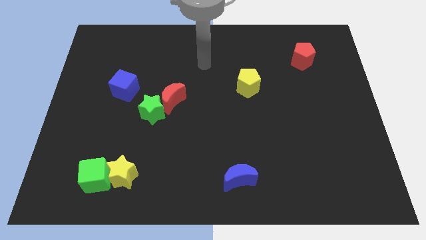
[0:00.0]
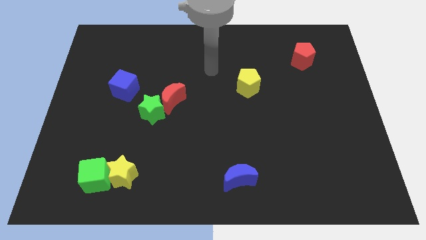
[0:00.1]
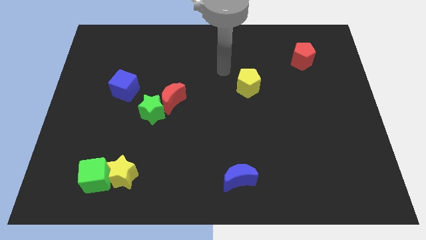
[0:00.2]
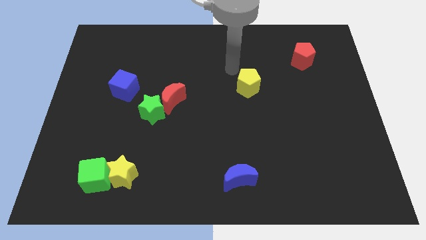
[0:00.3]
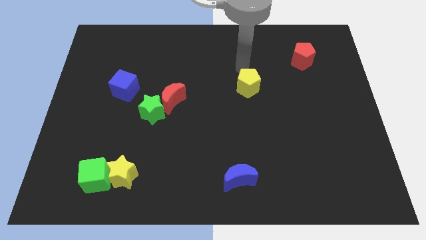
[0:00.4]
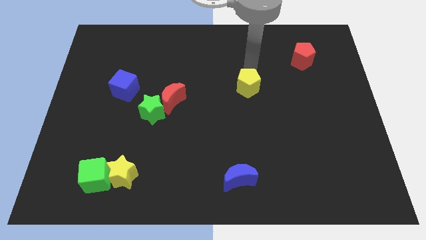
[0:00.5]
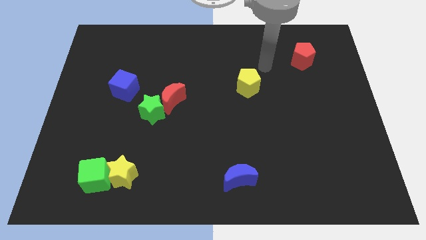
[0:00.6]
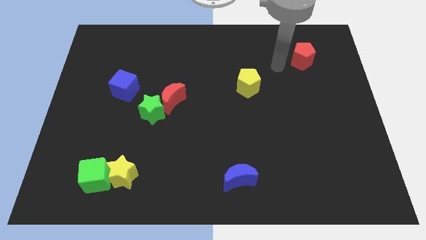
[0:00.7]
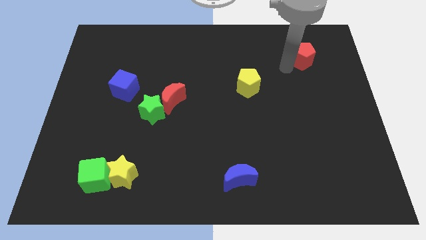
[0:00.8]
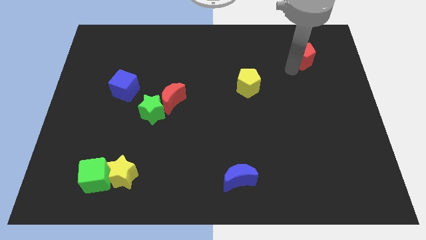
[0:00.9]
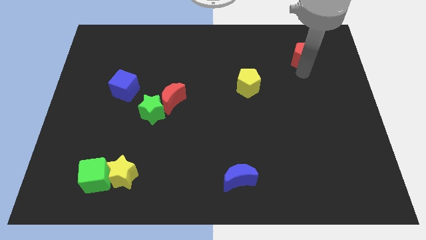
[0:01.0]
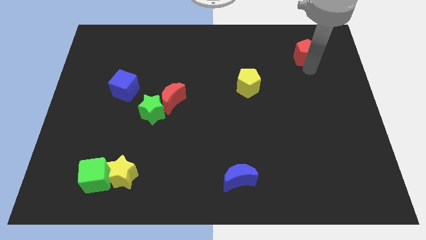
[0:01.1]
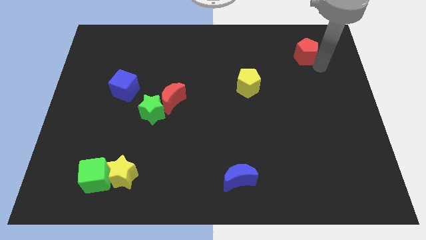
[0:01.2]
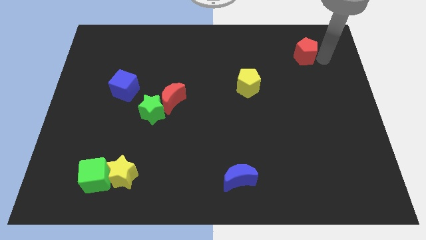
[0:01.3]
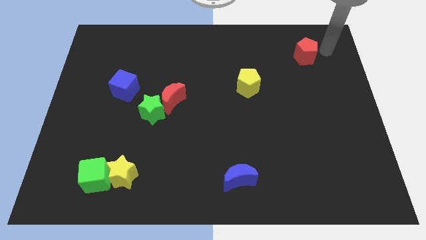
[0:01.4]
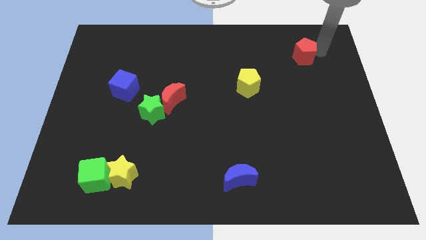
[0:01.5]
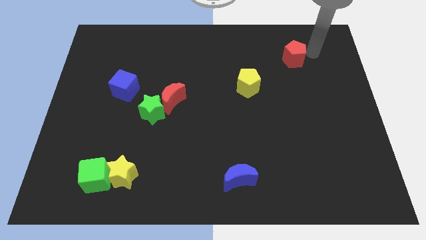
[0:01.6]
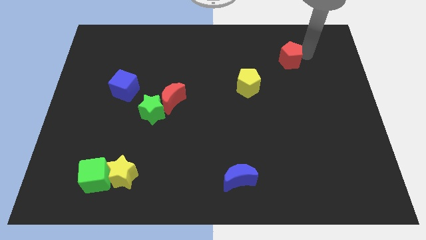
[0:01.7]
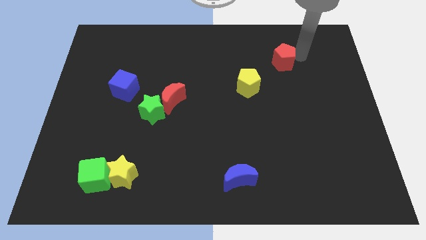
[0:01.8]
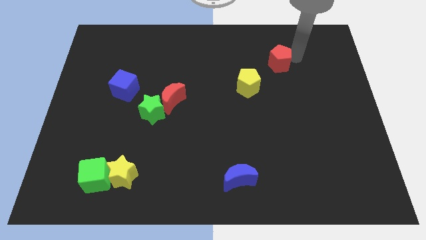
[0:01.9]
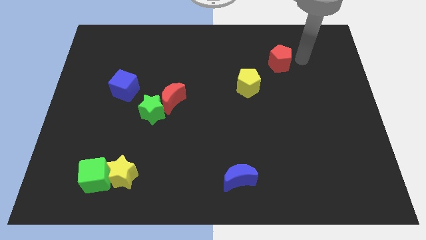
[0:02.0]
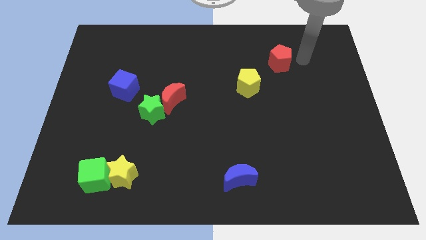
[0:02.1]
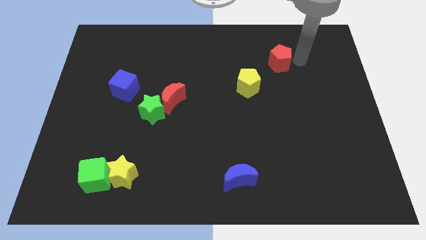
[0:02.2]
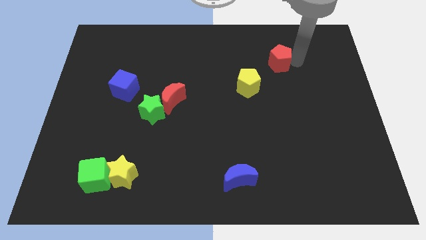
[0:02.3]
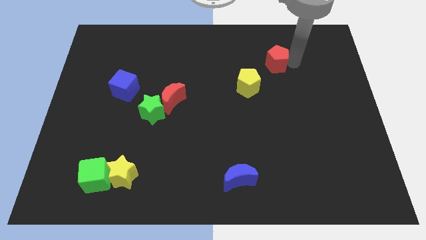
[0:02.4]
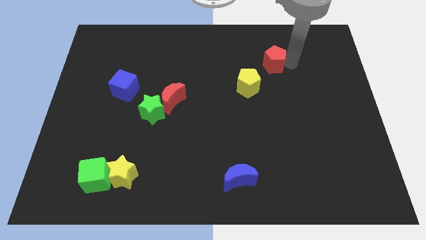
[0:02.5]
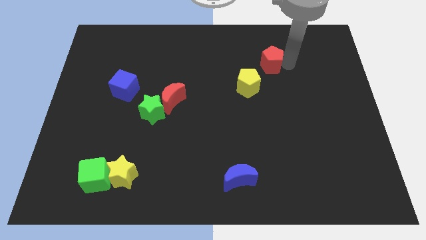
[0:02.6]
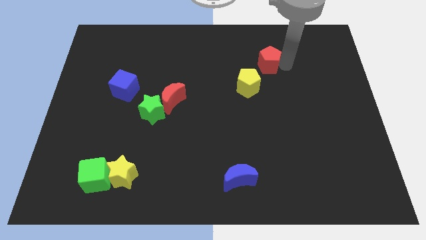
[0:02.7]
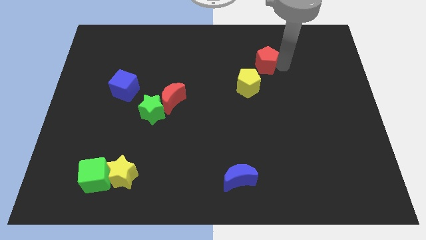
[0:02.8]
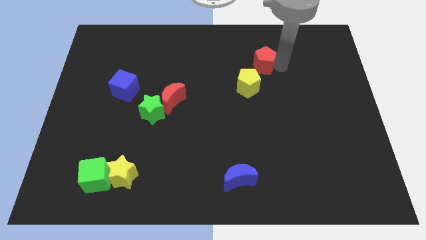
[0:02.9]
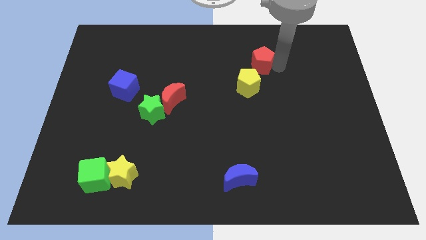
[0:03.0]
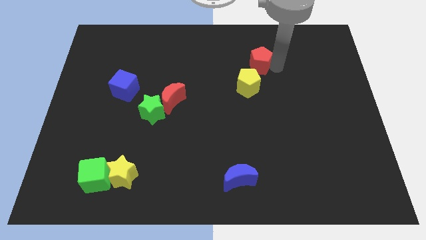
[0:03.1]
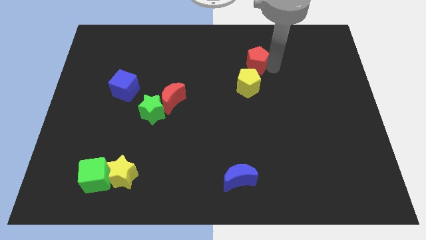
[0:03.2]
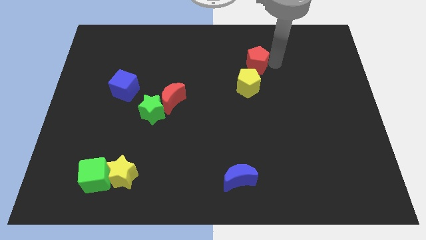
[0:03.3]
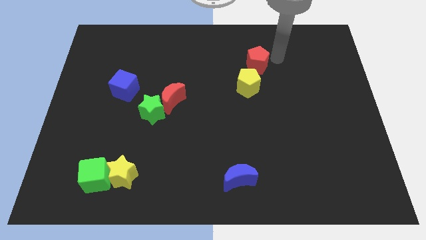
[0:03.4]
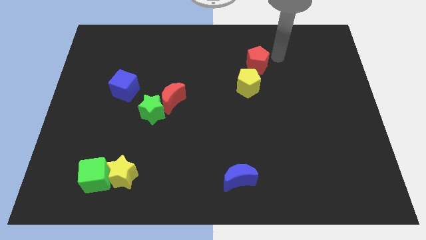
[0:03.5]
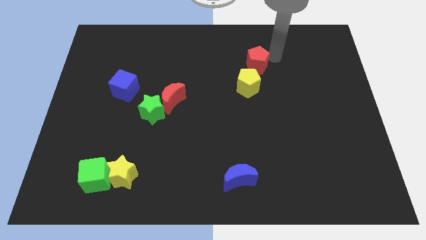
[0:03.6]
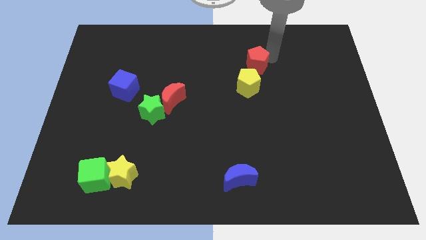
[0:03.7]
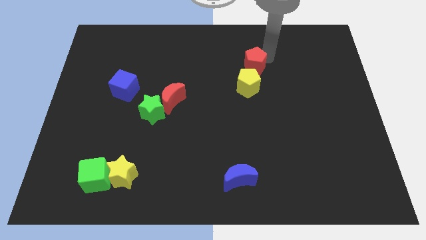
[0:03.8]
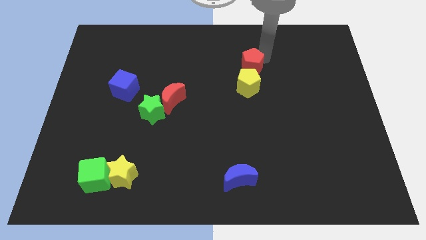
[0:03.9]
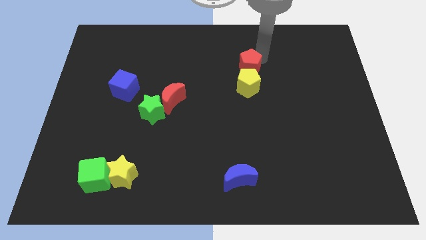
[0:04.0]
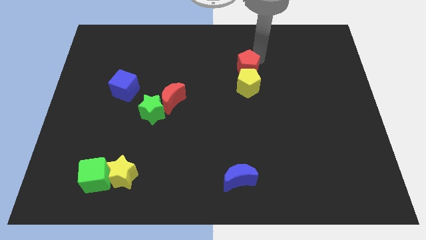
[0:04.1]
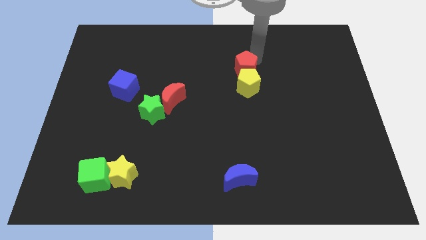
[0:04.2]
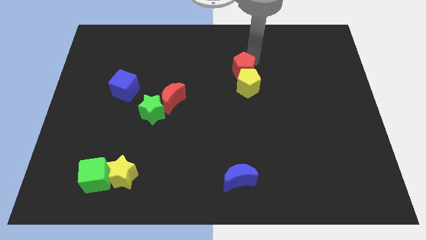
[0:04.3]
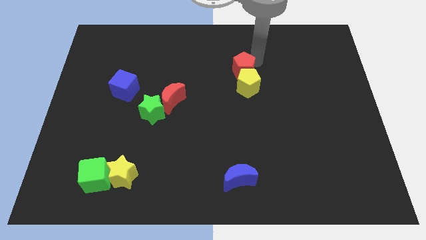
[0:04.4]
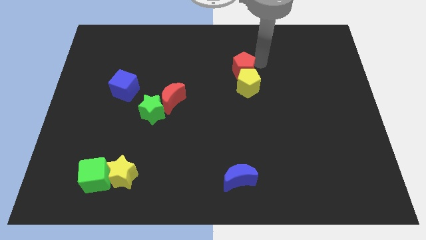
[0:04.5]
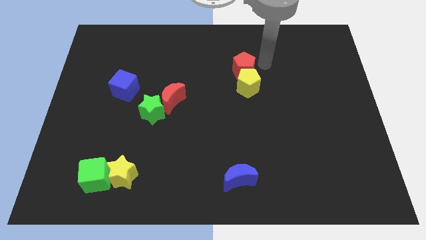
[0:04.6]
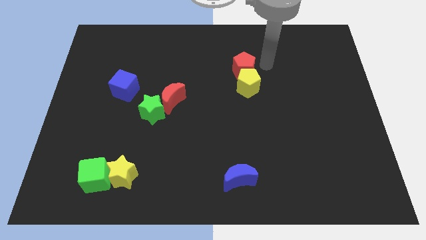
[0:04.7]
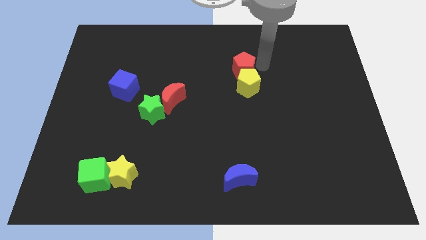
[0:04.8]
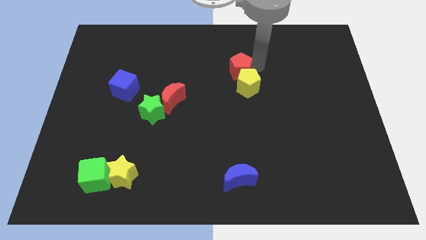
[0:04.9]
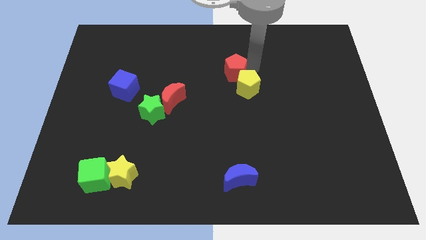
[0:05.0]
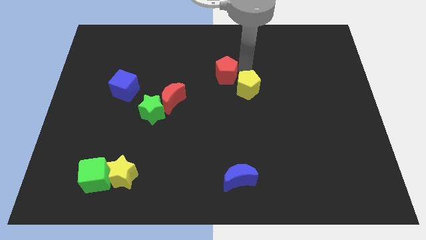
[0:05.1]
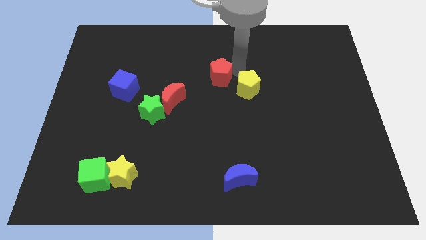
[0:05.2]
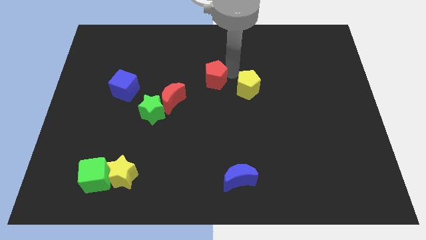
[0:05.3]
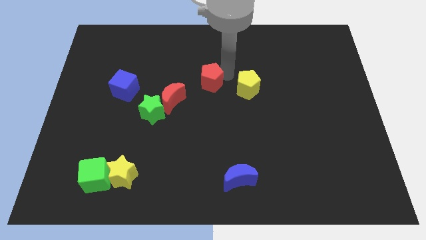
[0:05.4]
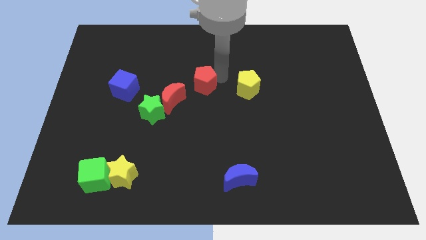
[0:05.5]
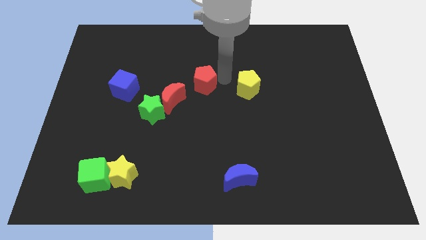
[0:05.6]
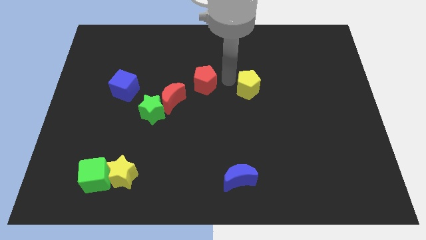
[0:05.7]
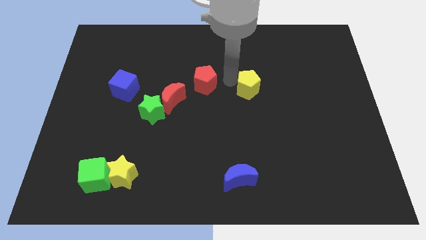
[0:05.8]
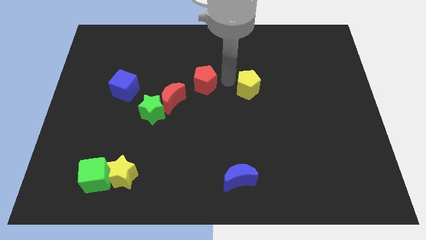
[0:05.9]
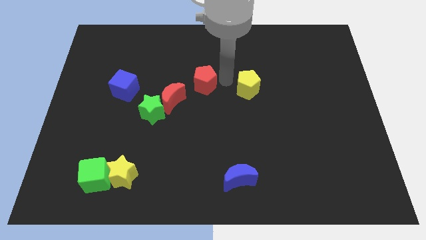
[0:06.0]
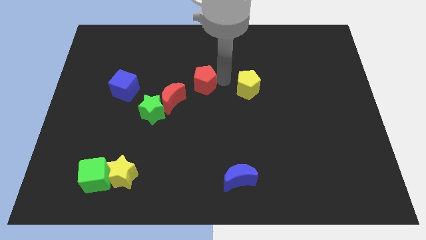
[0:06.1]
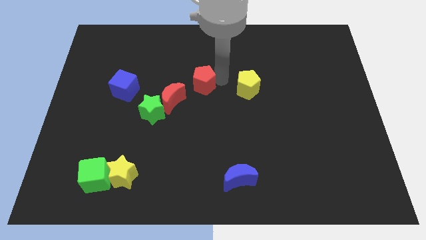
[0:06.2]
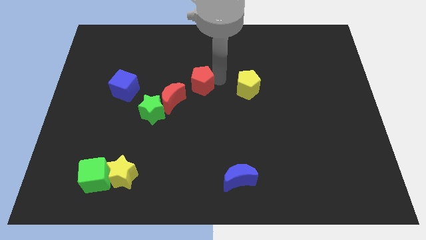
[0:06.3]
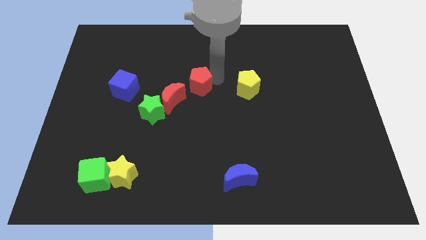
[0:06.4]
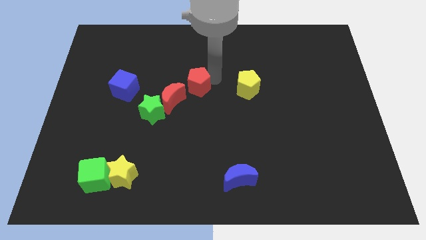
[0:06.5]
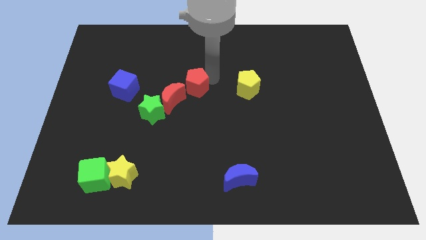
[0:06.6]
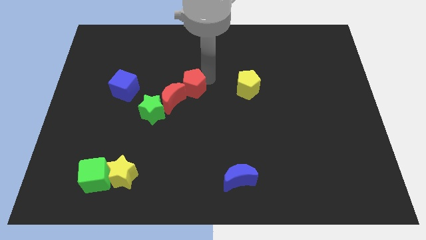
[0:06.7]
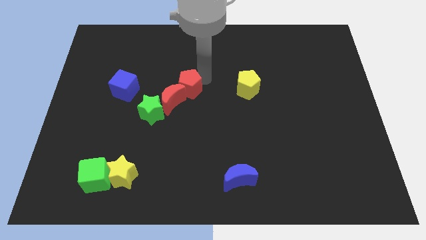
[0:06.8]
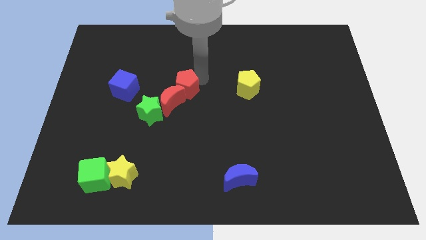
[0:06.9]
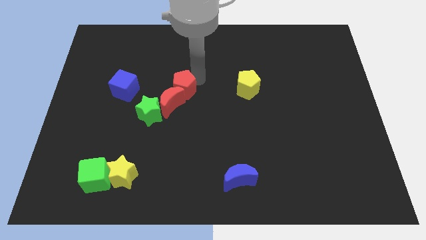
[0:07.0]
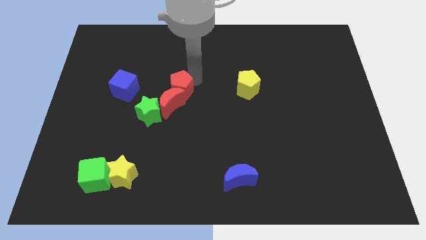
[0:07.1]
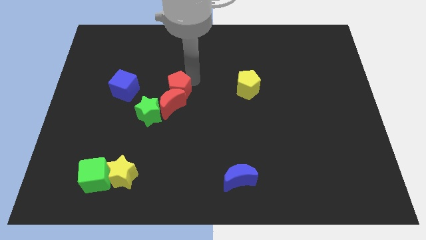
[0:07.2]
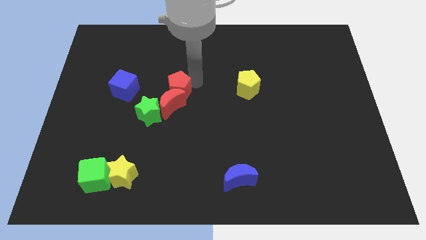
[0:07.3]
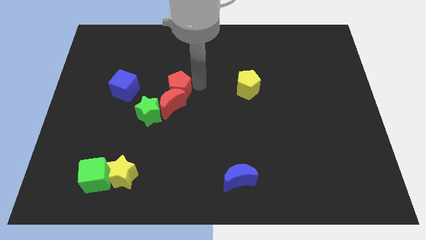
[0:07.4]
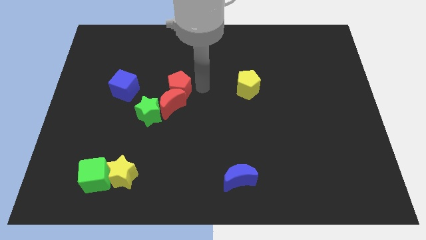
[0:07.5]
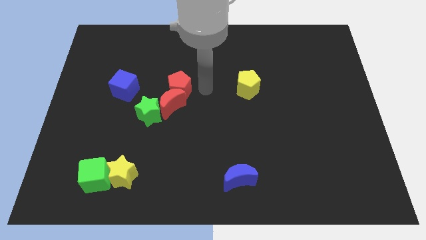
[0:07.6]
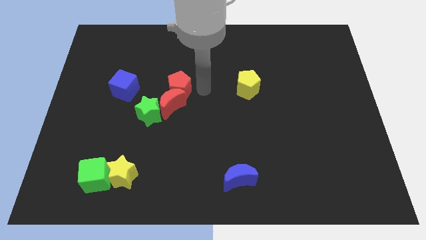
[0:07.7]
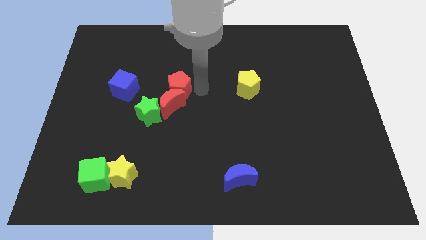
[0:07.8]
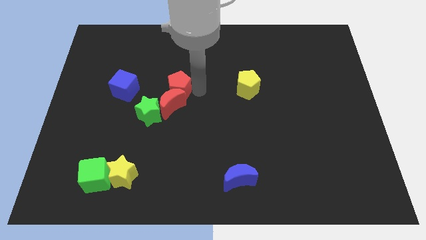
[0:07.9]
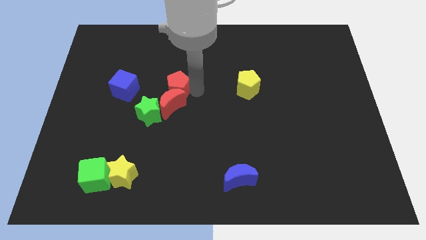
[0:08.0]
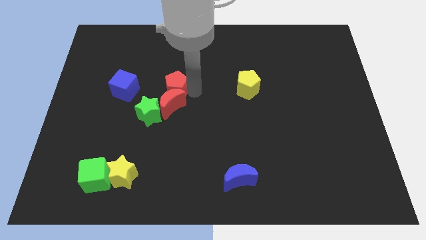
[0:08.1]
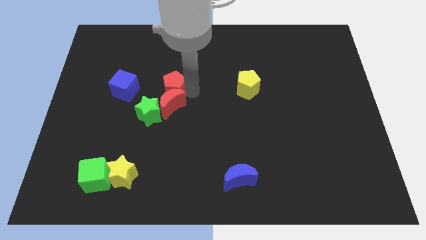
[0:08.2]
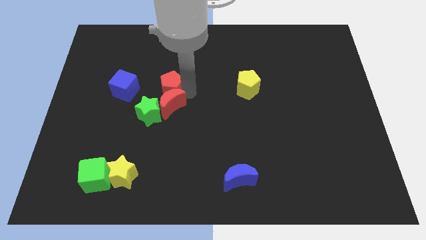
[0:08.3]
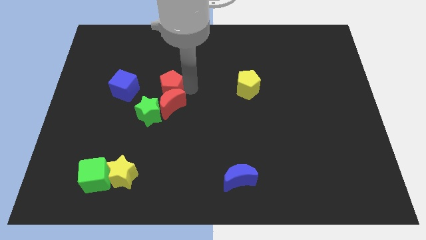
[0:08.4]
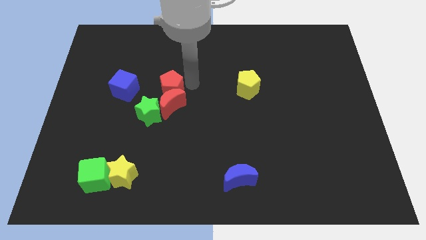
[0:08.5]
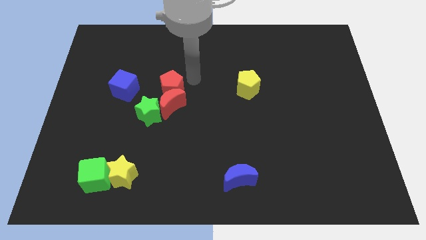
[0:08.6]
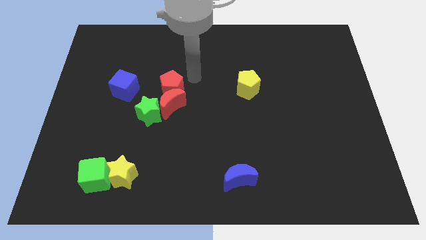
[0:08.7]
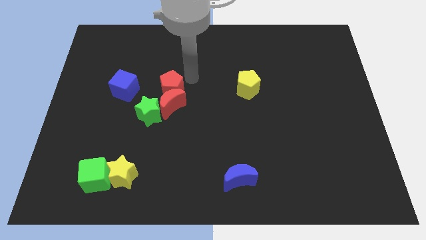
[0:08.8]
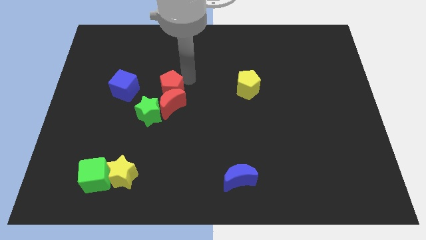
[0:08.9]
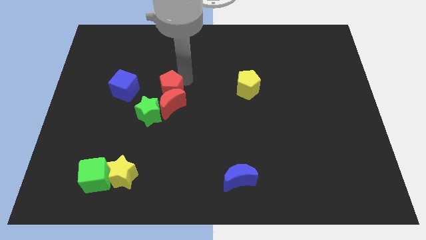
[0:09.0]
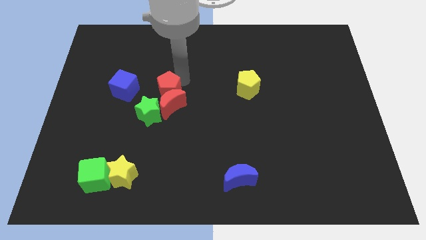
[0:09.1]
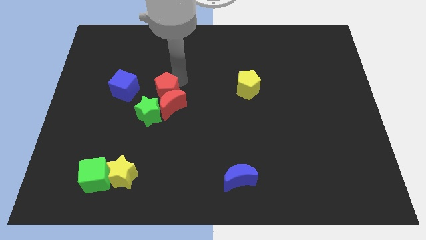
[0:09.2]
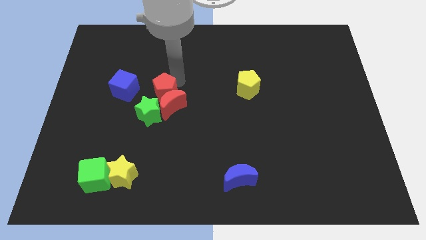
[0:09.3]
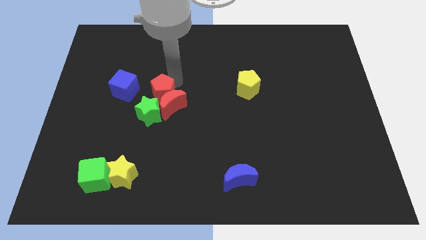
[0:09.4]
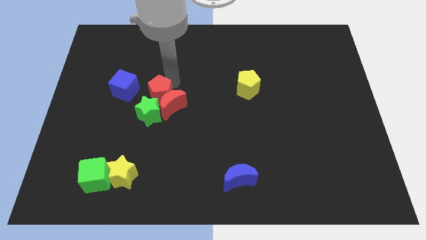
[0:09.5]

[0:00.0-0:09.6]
put the red pentagon to the green star
